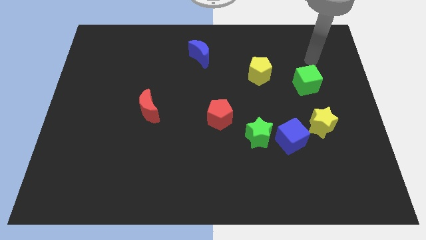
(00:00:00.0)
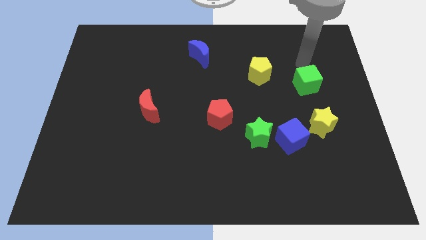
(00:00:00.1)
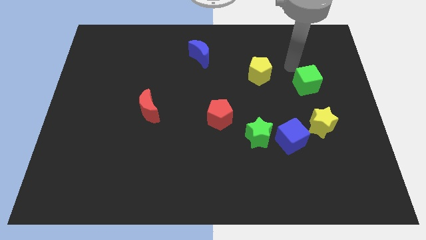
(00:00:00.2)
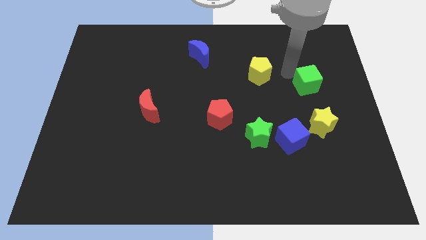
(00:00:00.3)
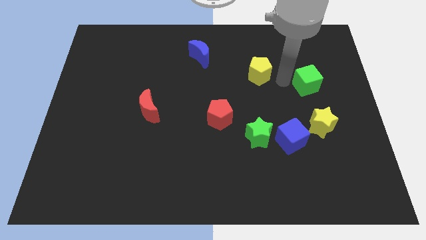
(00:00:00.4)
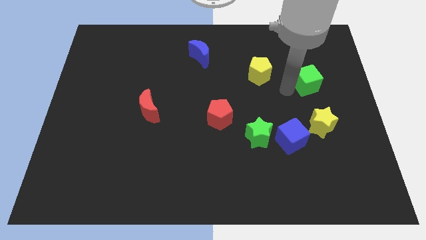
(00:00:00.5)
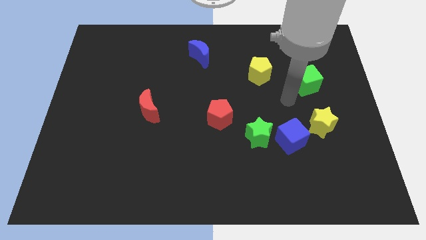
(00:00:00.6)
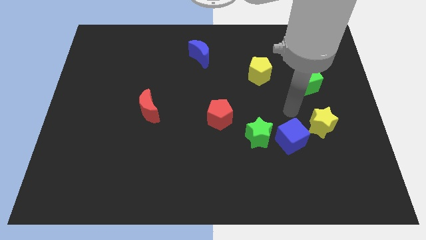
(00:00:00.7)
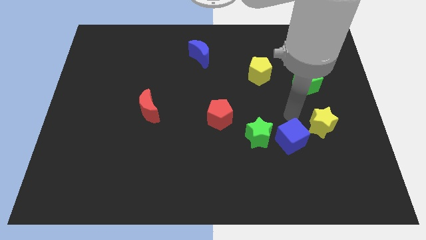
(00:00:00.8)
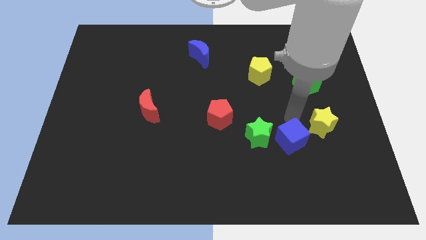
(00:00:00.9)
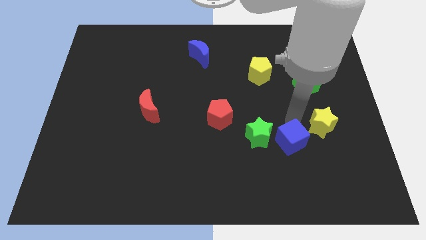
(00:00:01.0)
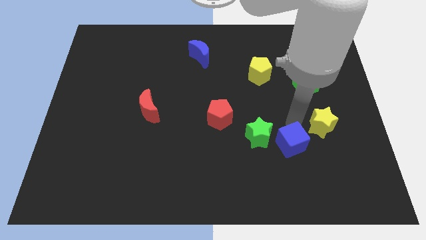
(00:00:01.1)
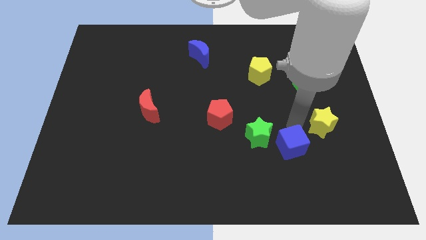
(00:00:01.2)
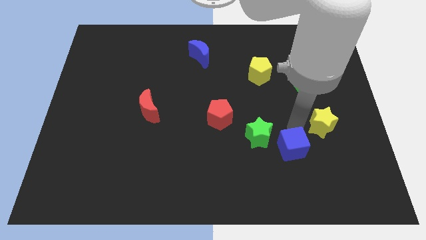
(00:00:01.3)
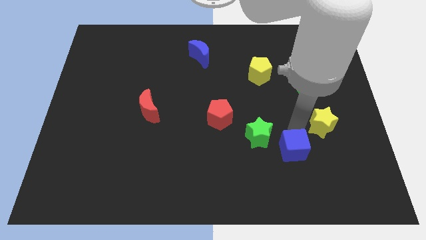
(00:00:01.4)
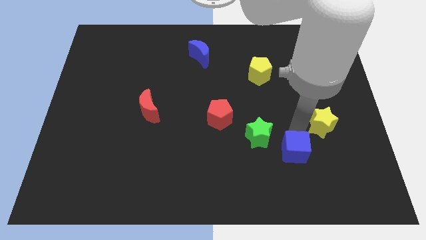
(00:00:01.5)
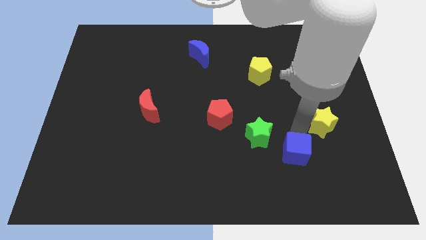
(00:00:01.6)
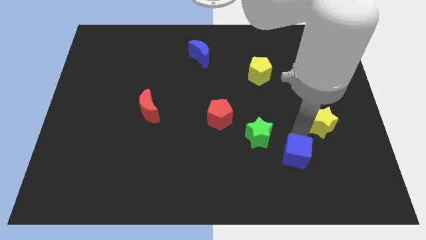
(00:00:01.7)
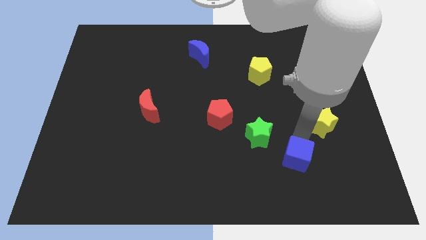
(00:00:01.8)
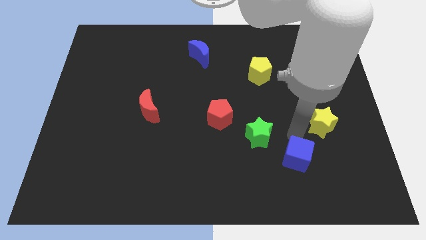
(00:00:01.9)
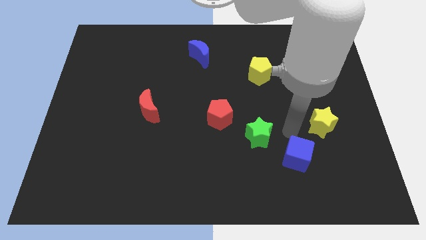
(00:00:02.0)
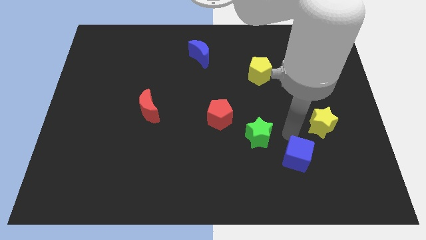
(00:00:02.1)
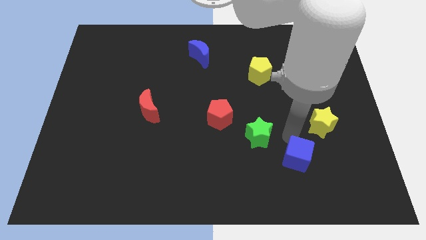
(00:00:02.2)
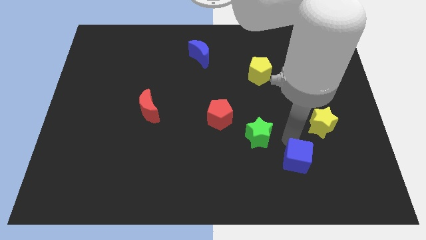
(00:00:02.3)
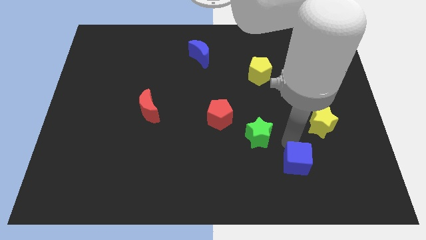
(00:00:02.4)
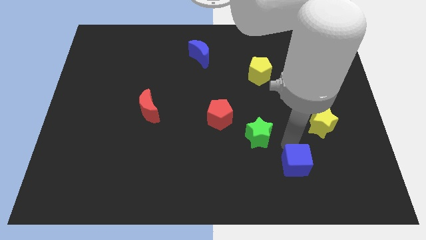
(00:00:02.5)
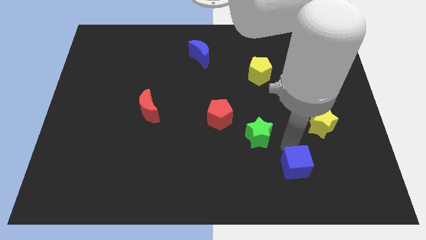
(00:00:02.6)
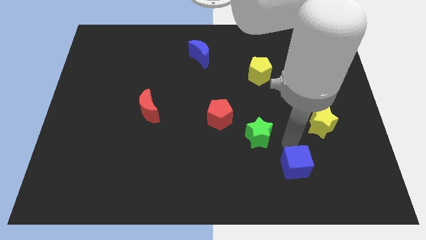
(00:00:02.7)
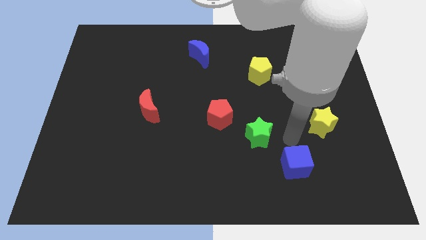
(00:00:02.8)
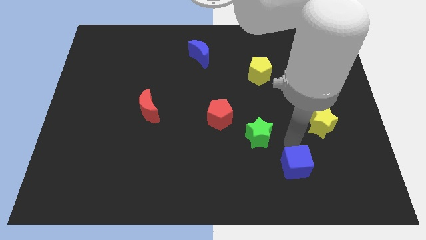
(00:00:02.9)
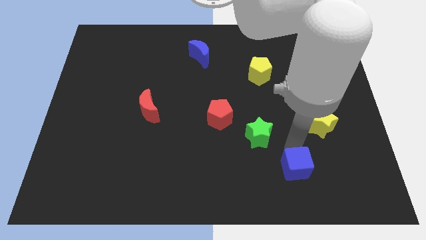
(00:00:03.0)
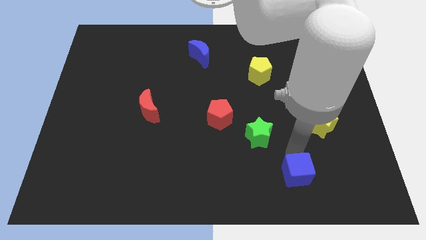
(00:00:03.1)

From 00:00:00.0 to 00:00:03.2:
pull the blue cube apart from the green star and yellow star

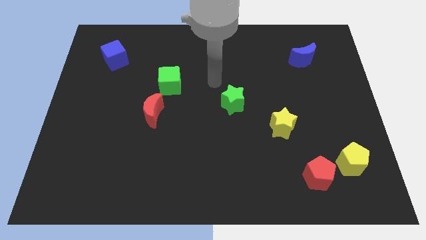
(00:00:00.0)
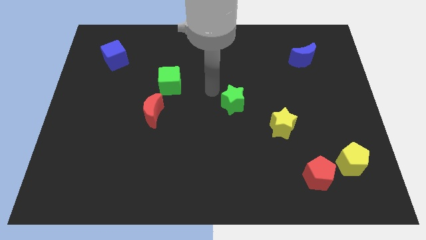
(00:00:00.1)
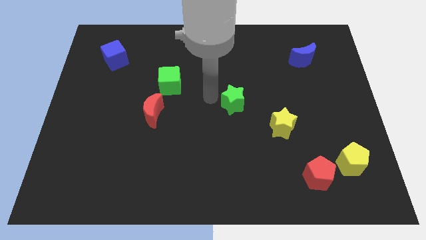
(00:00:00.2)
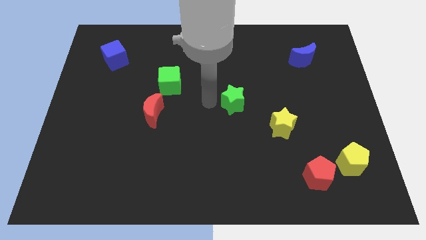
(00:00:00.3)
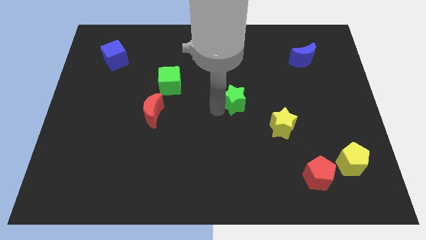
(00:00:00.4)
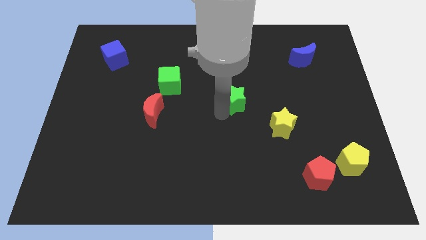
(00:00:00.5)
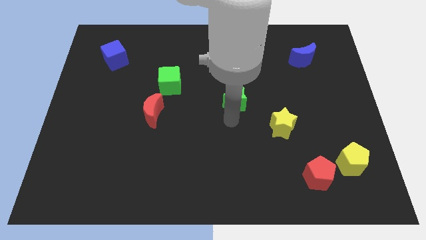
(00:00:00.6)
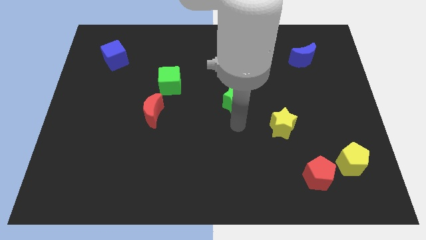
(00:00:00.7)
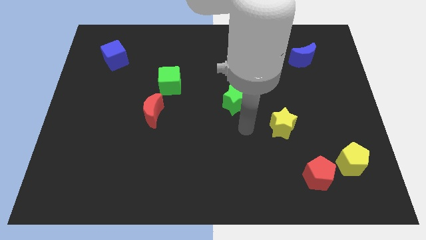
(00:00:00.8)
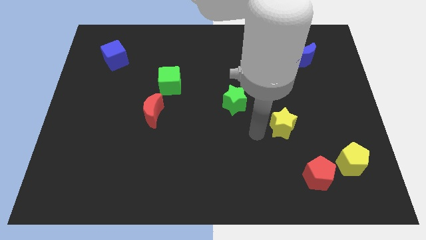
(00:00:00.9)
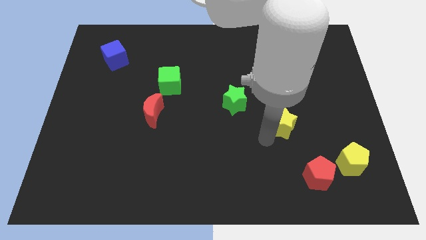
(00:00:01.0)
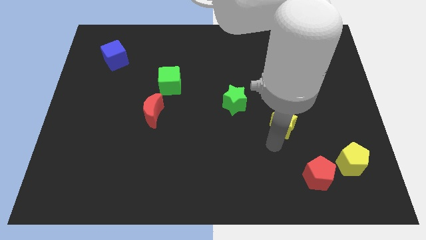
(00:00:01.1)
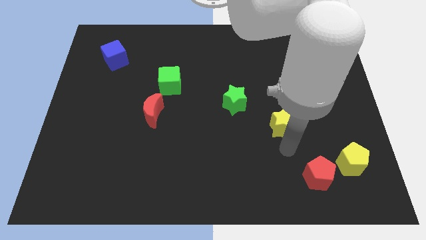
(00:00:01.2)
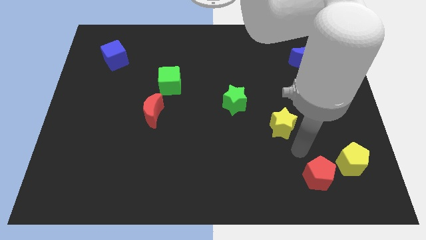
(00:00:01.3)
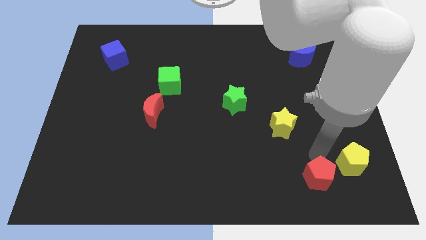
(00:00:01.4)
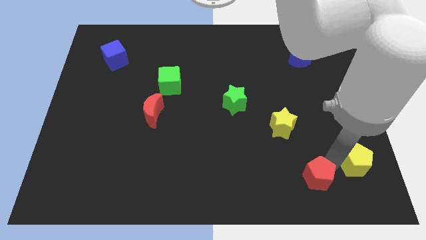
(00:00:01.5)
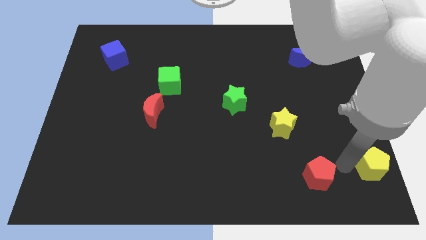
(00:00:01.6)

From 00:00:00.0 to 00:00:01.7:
move the red pentagon away from the yellow pentagon

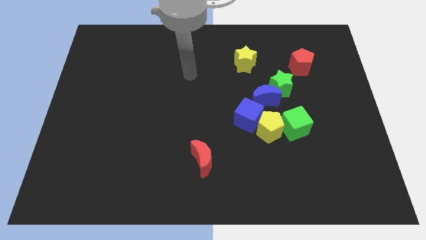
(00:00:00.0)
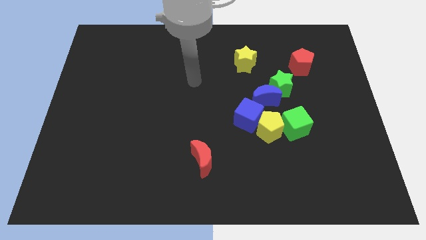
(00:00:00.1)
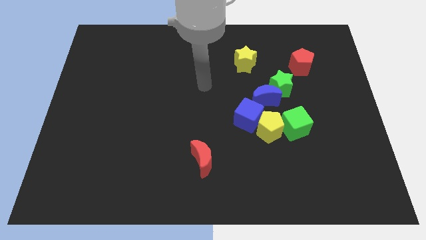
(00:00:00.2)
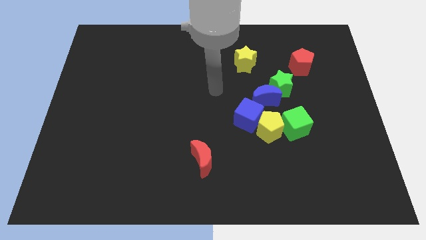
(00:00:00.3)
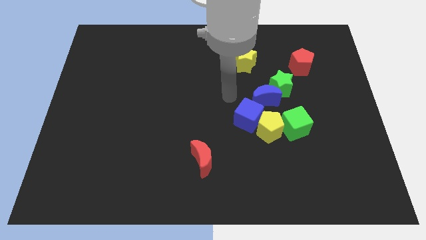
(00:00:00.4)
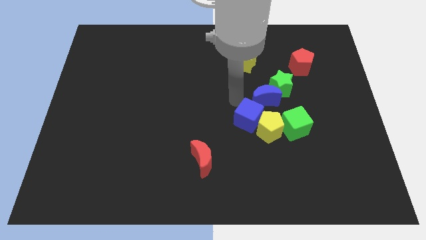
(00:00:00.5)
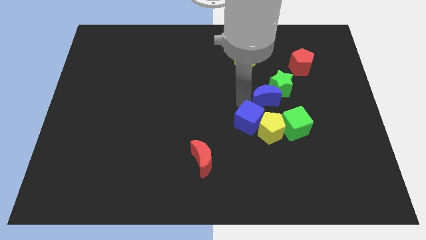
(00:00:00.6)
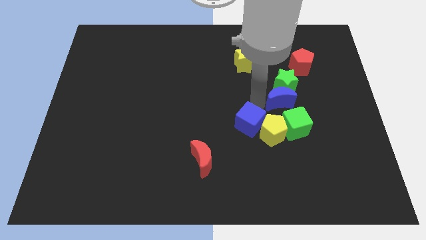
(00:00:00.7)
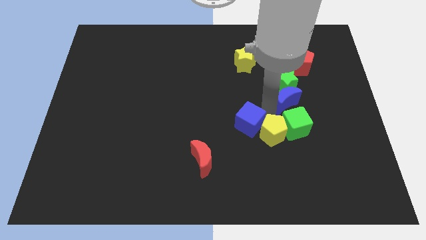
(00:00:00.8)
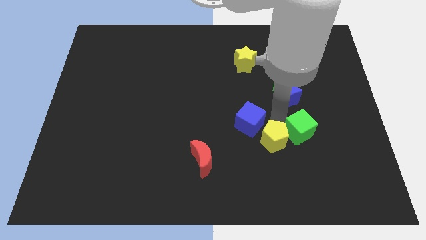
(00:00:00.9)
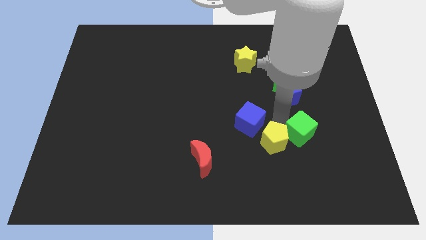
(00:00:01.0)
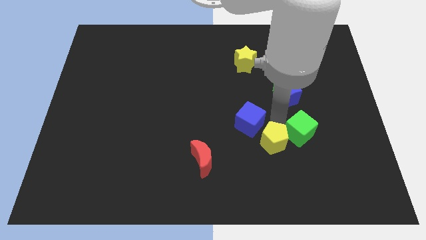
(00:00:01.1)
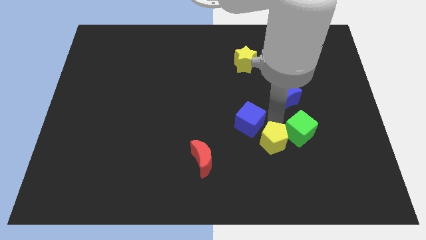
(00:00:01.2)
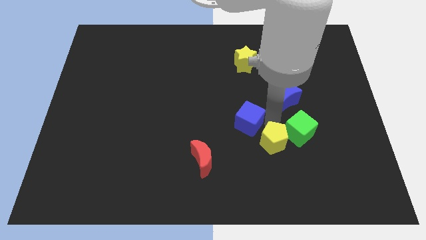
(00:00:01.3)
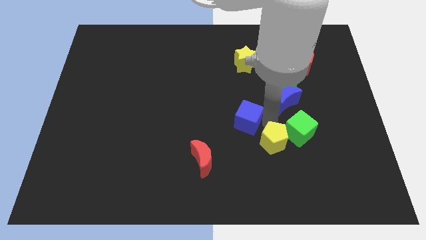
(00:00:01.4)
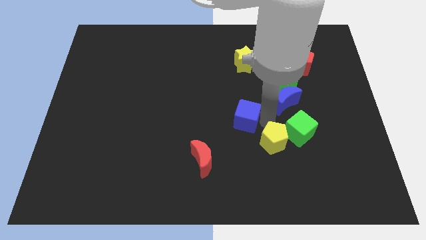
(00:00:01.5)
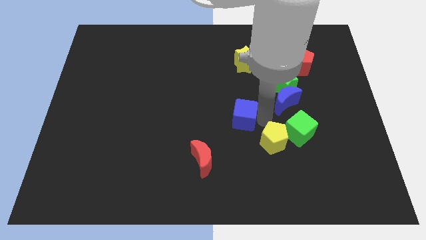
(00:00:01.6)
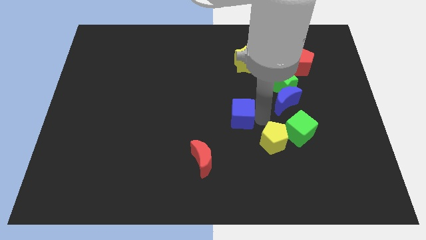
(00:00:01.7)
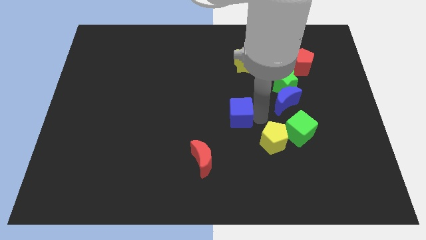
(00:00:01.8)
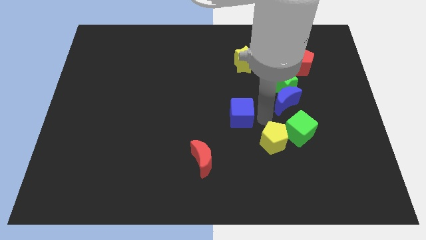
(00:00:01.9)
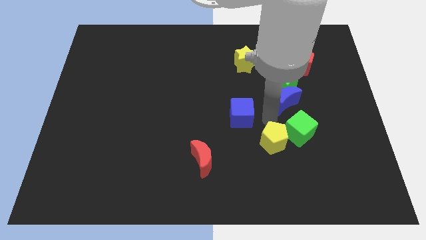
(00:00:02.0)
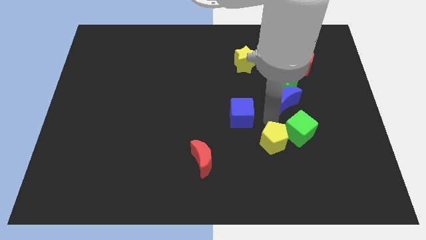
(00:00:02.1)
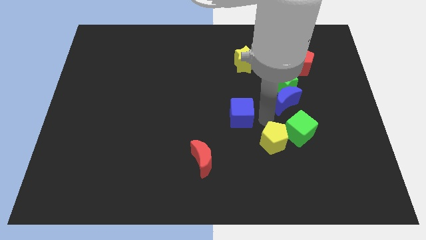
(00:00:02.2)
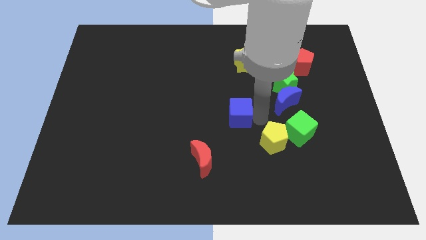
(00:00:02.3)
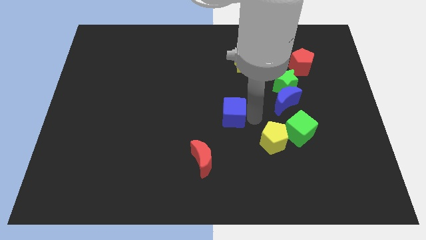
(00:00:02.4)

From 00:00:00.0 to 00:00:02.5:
separate the blue cube from the yellow pentagon and blue moon

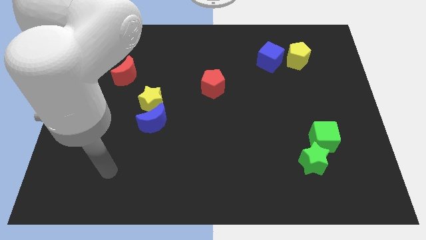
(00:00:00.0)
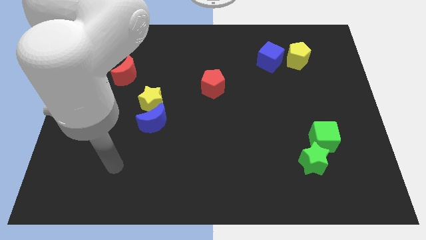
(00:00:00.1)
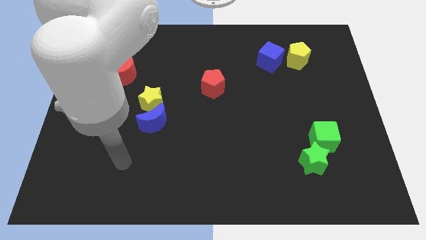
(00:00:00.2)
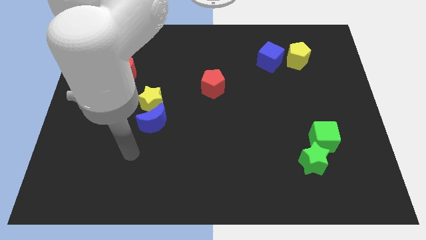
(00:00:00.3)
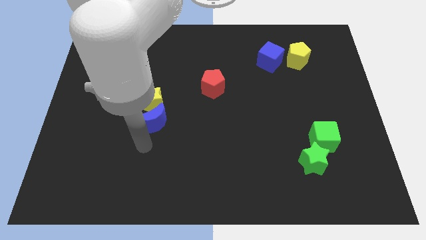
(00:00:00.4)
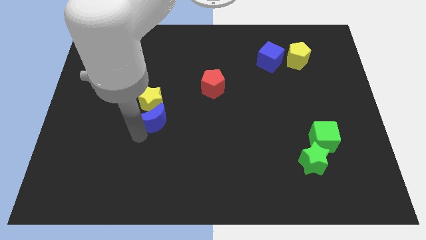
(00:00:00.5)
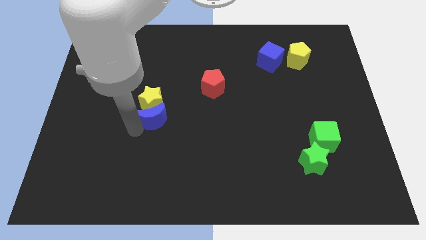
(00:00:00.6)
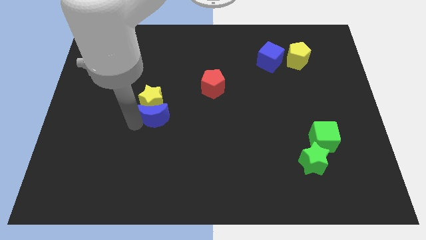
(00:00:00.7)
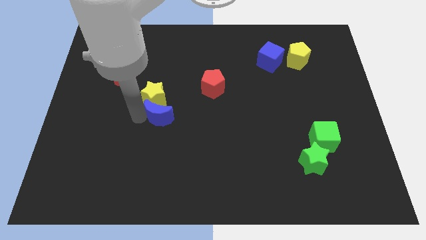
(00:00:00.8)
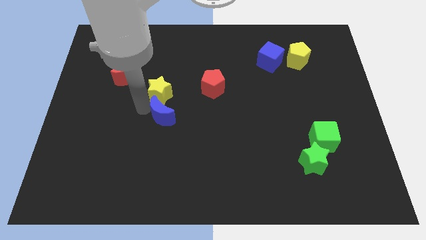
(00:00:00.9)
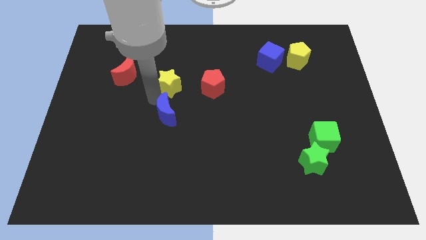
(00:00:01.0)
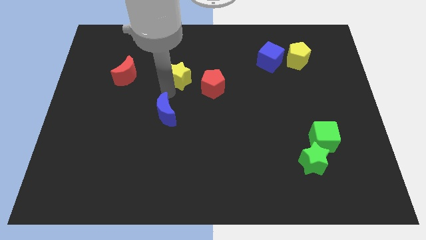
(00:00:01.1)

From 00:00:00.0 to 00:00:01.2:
move the blue moon away from the yellow star

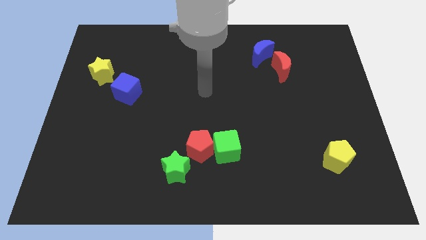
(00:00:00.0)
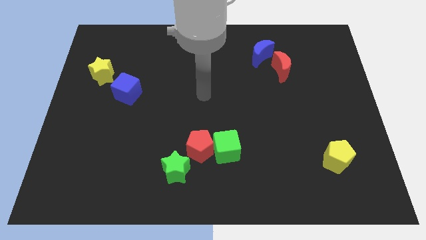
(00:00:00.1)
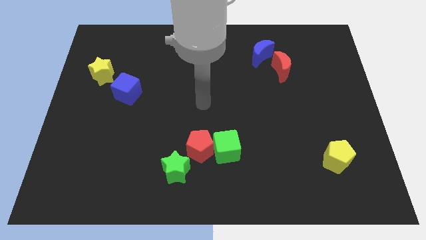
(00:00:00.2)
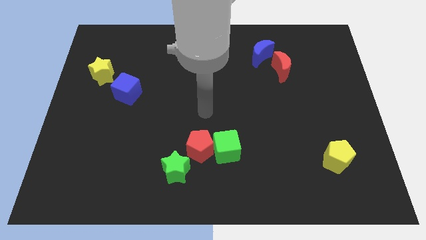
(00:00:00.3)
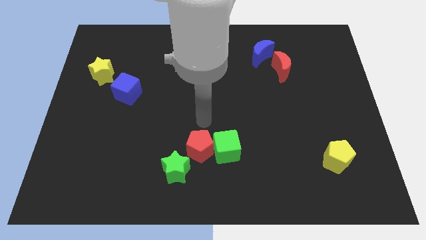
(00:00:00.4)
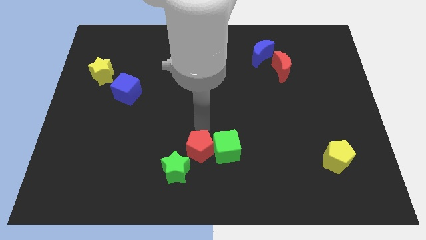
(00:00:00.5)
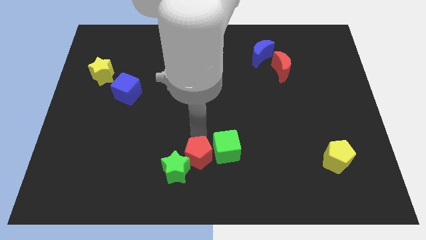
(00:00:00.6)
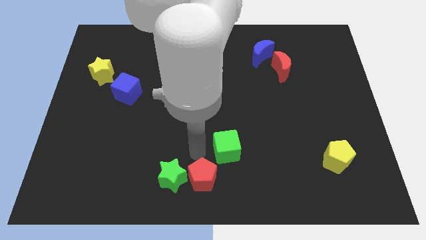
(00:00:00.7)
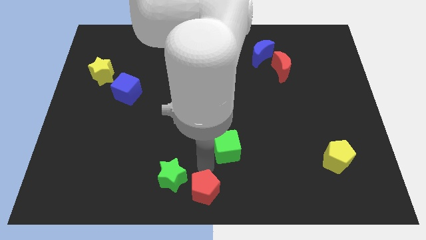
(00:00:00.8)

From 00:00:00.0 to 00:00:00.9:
separate the green cube from the red pentagon
